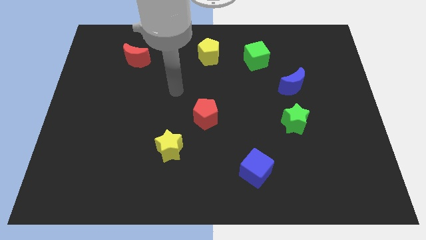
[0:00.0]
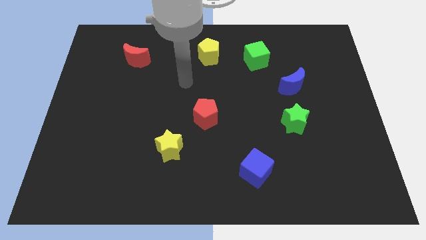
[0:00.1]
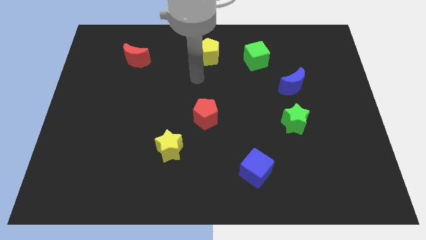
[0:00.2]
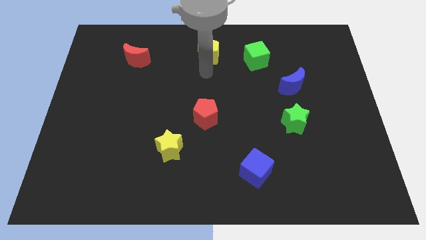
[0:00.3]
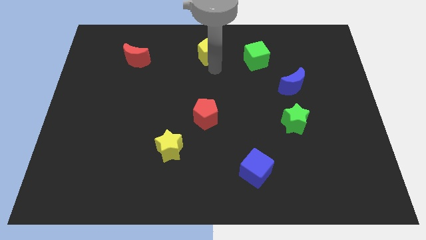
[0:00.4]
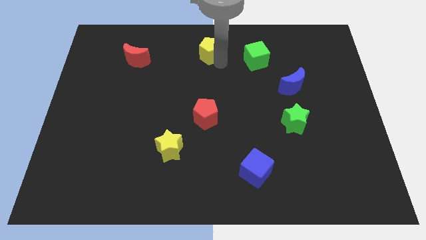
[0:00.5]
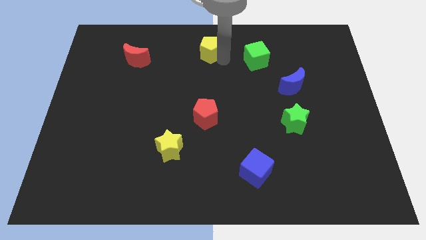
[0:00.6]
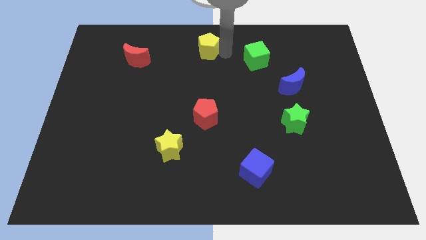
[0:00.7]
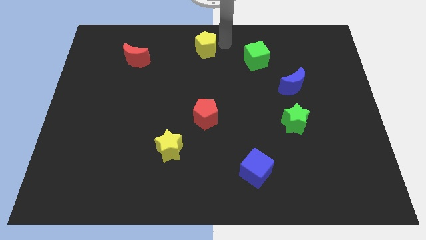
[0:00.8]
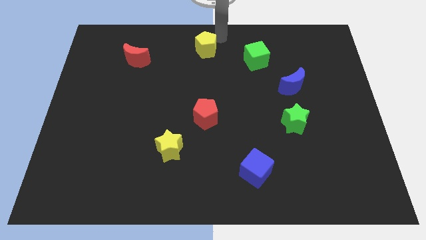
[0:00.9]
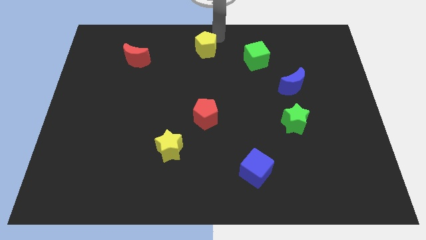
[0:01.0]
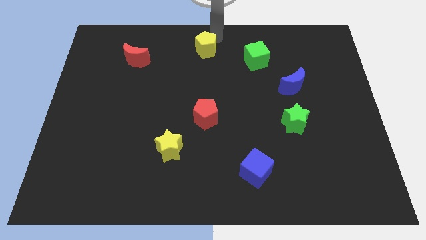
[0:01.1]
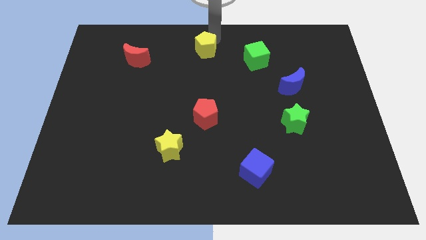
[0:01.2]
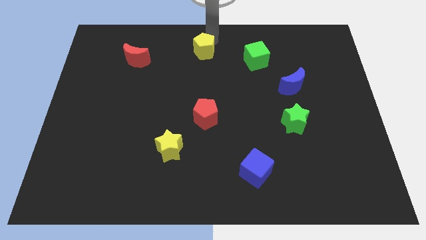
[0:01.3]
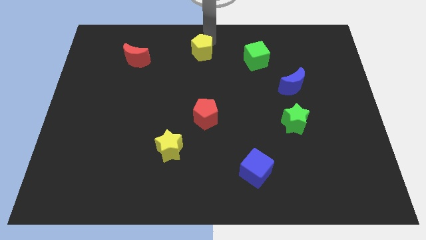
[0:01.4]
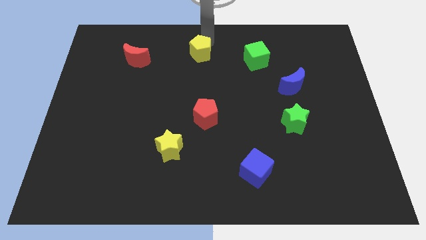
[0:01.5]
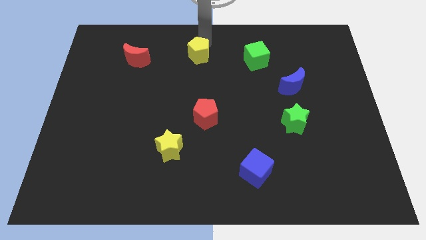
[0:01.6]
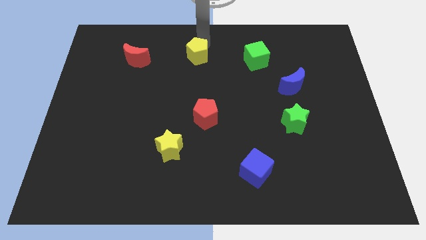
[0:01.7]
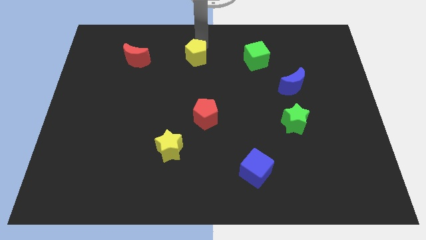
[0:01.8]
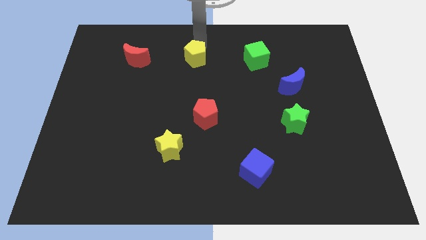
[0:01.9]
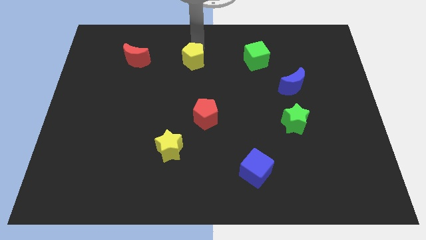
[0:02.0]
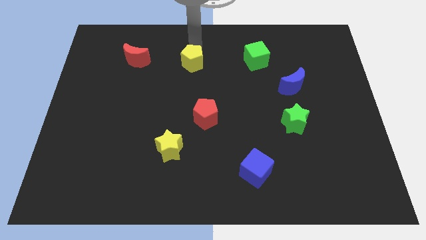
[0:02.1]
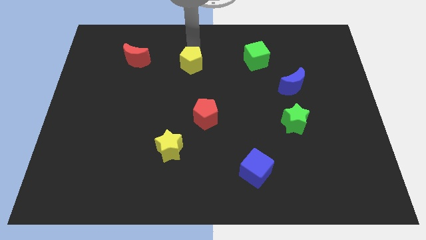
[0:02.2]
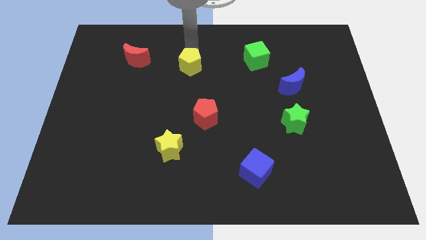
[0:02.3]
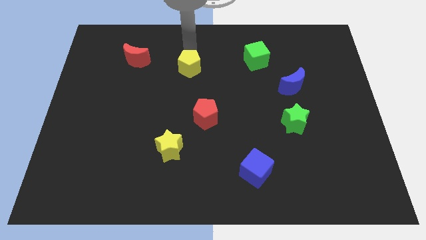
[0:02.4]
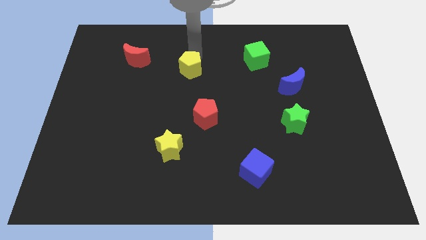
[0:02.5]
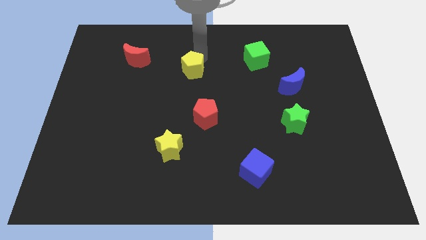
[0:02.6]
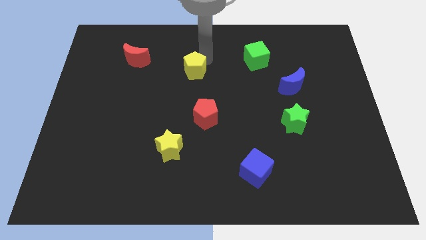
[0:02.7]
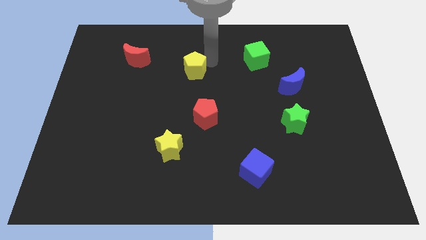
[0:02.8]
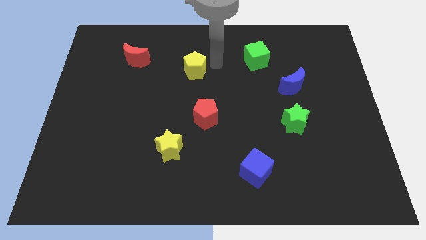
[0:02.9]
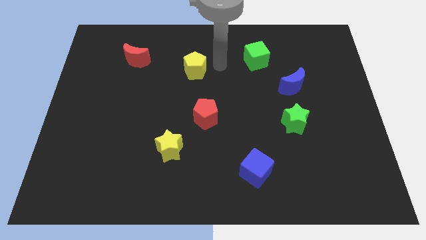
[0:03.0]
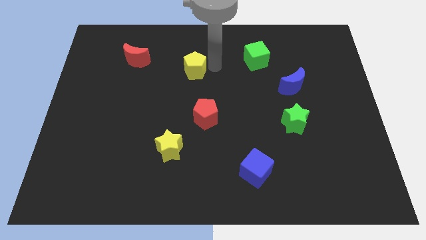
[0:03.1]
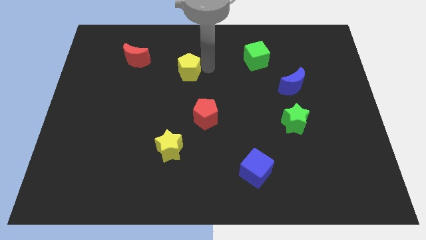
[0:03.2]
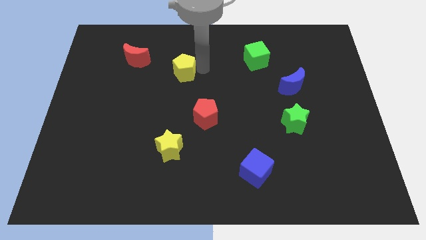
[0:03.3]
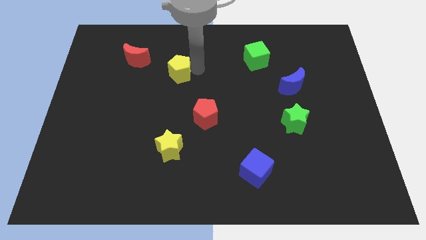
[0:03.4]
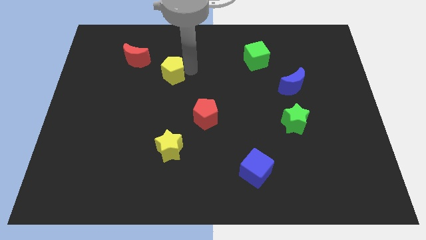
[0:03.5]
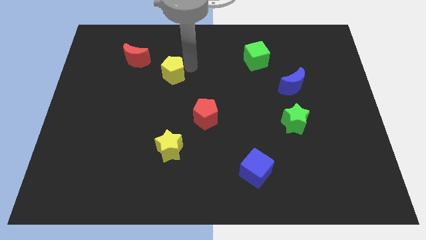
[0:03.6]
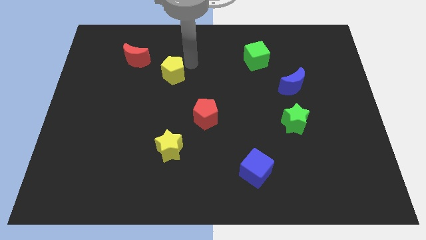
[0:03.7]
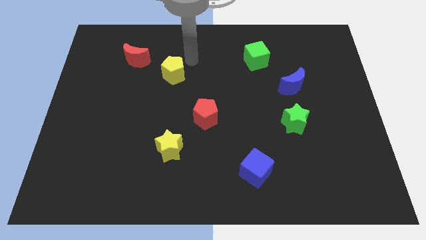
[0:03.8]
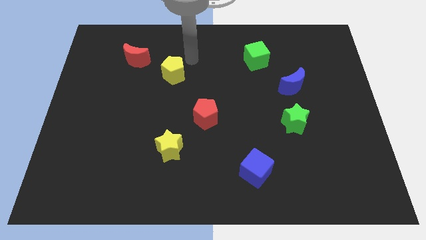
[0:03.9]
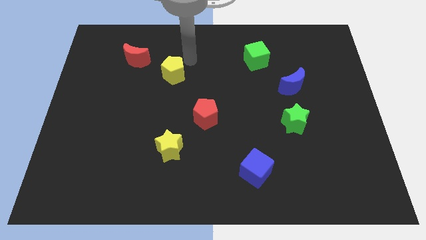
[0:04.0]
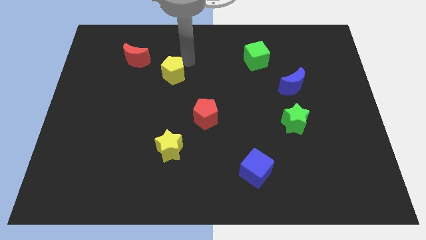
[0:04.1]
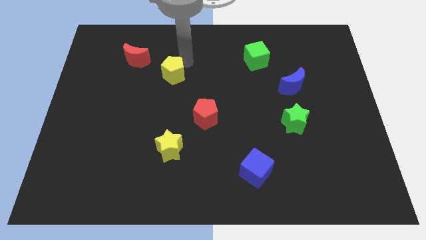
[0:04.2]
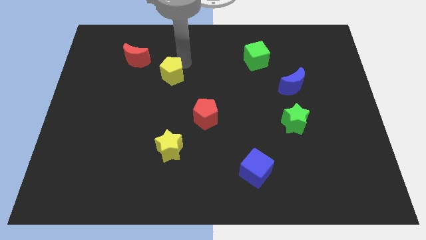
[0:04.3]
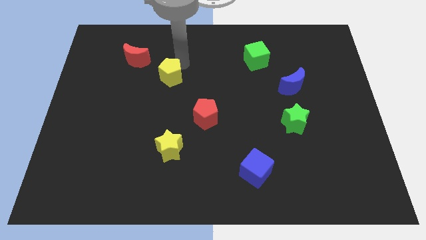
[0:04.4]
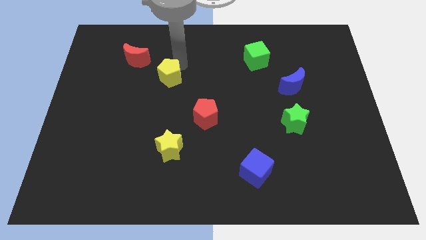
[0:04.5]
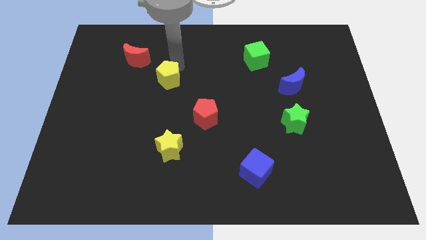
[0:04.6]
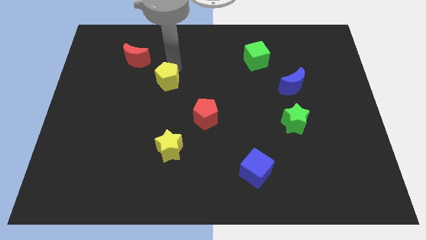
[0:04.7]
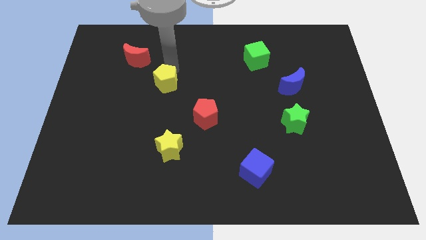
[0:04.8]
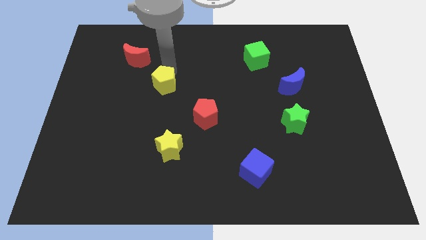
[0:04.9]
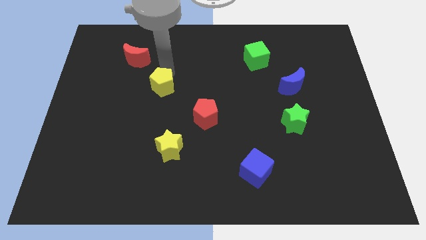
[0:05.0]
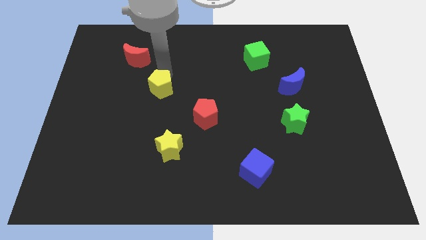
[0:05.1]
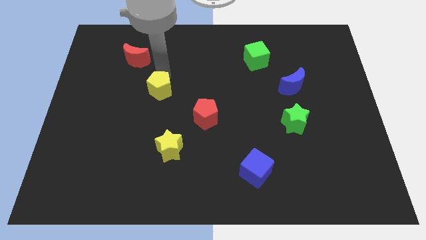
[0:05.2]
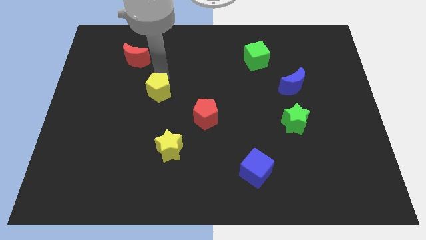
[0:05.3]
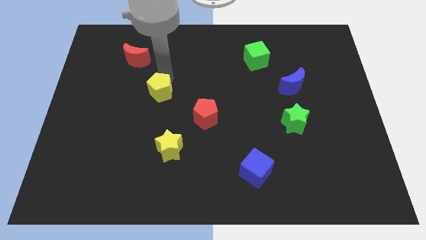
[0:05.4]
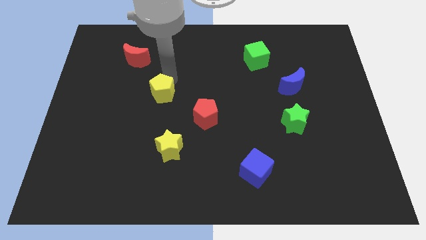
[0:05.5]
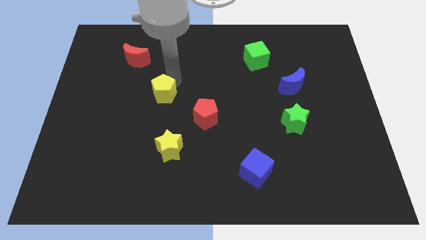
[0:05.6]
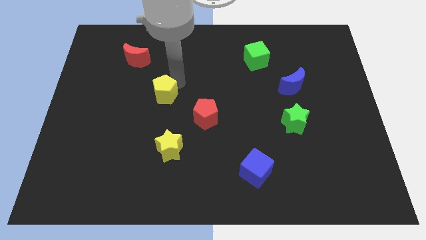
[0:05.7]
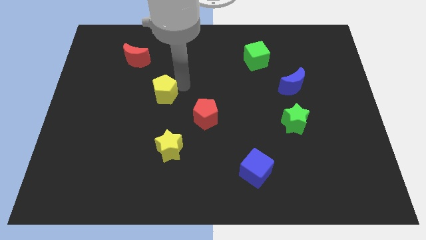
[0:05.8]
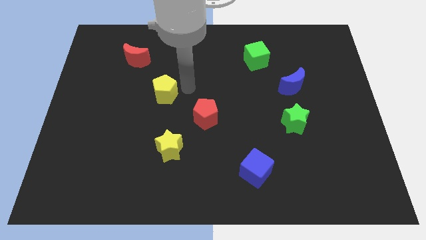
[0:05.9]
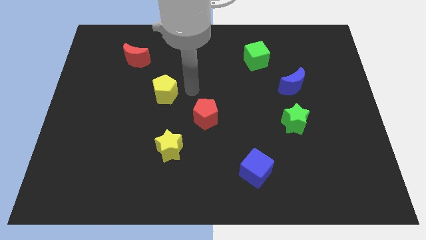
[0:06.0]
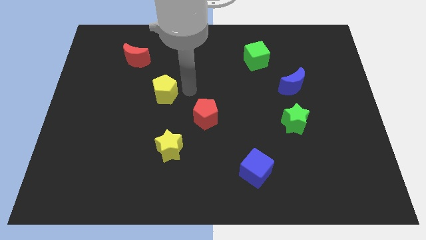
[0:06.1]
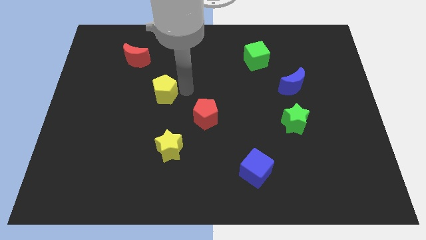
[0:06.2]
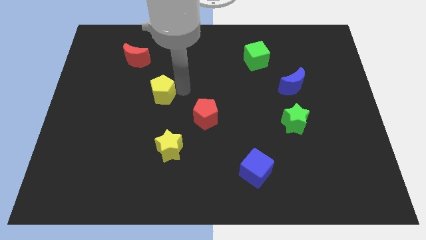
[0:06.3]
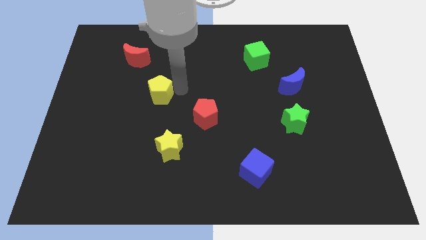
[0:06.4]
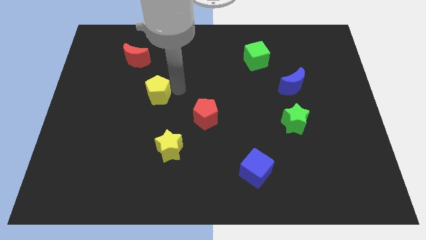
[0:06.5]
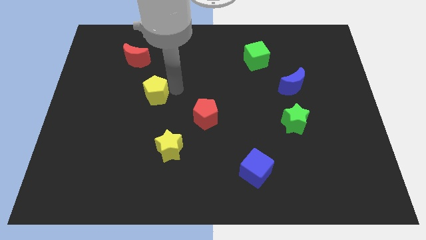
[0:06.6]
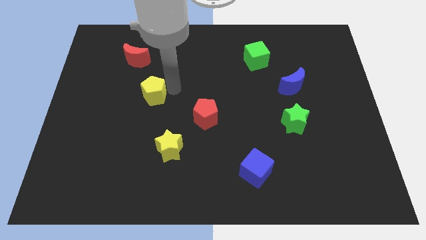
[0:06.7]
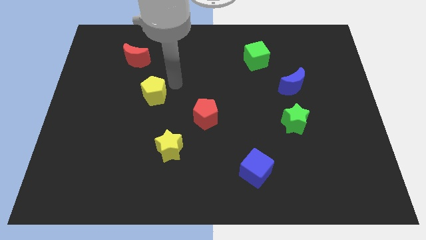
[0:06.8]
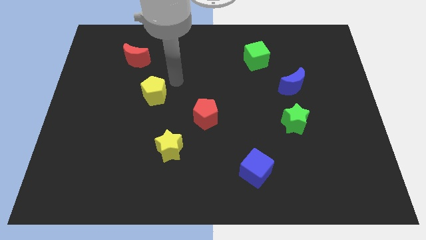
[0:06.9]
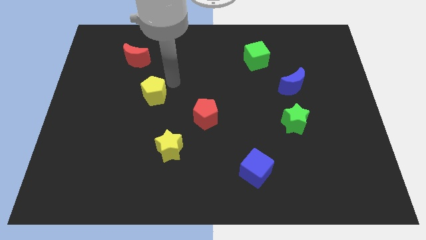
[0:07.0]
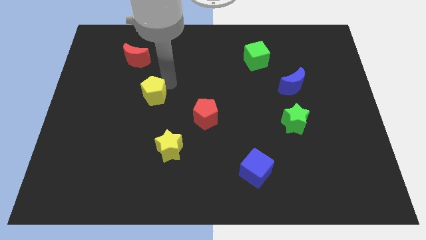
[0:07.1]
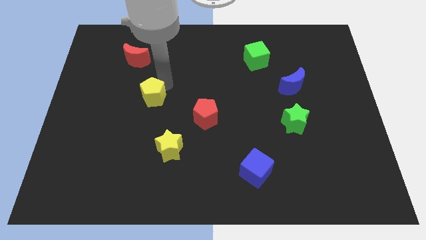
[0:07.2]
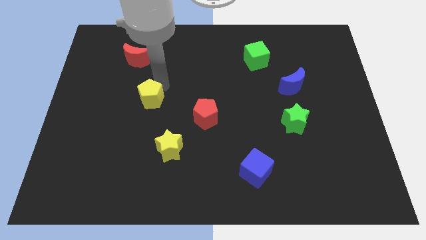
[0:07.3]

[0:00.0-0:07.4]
move the yellow pentagon down and then left
